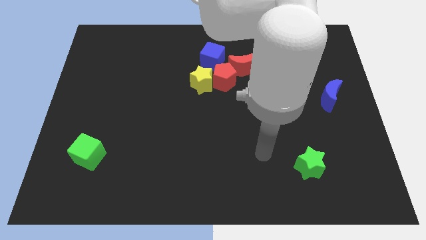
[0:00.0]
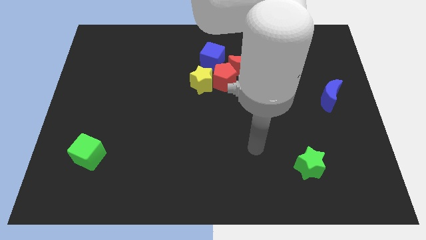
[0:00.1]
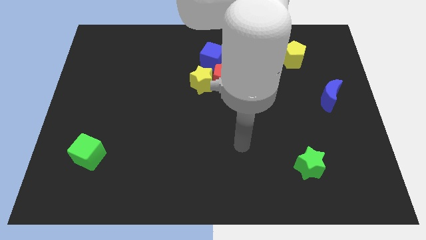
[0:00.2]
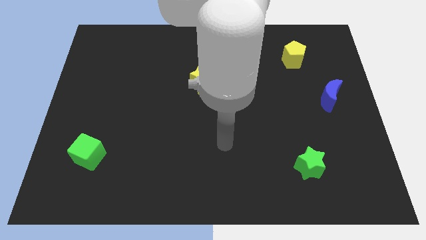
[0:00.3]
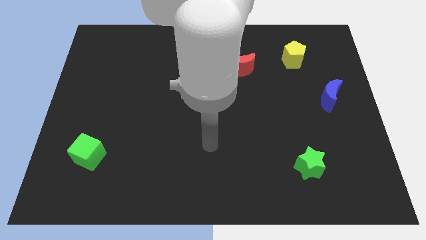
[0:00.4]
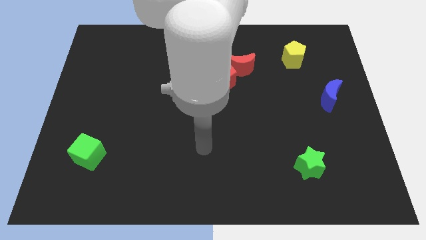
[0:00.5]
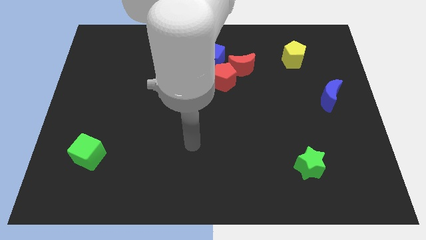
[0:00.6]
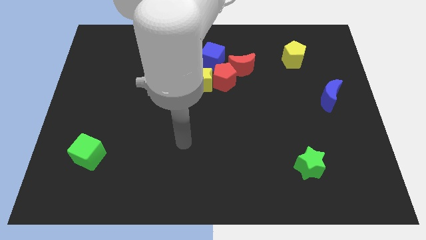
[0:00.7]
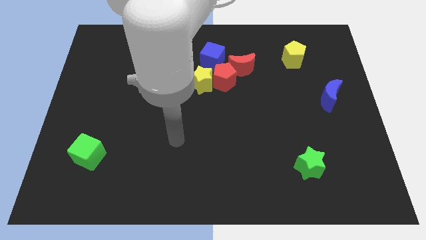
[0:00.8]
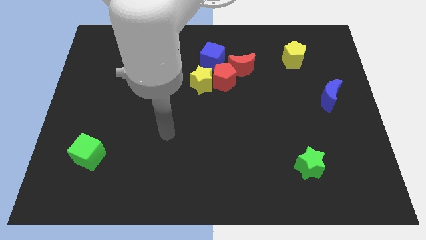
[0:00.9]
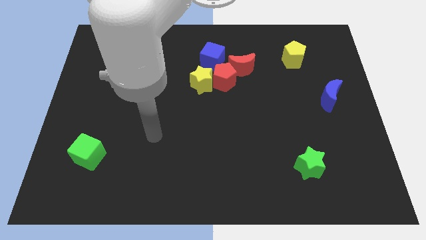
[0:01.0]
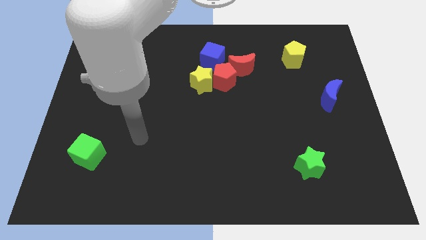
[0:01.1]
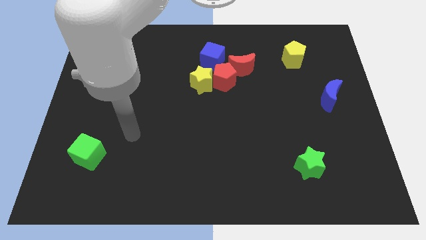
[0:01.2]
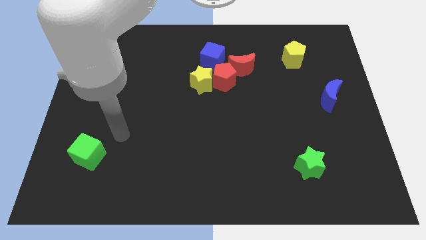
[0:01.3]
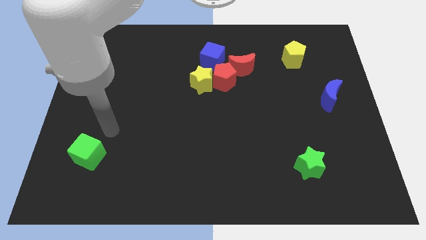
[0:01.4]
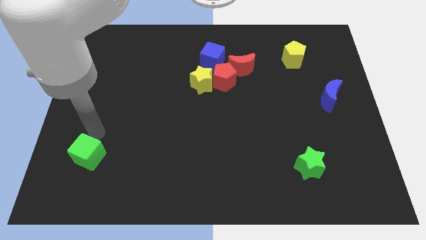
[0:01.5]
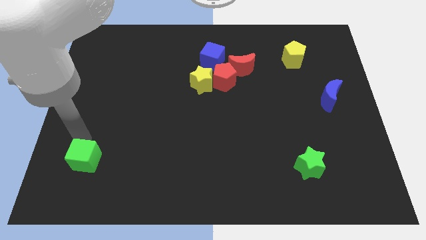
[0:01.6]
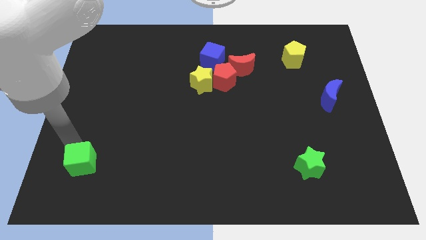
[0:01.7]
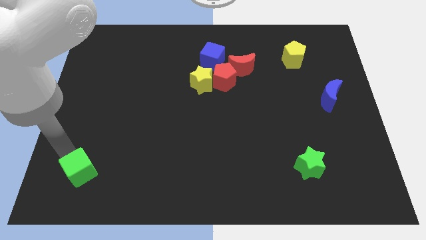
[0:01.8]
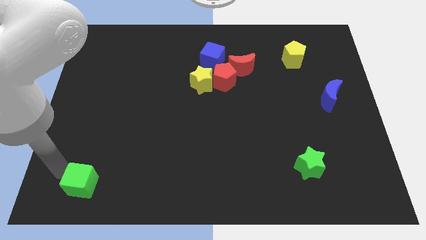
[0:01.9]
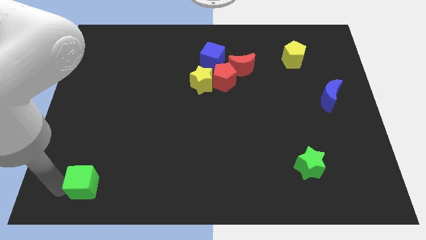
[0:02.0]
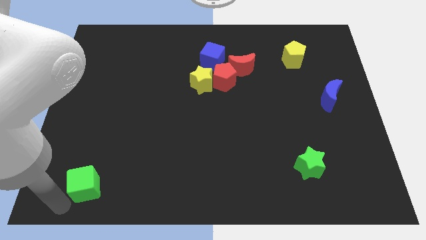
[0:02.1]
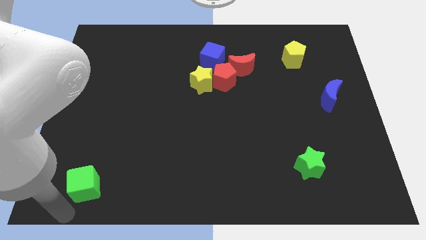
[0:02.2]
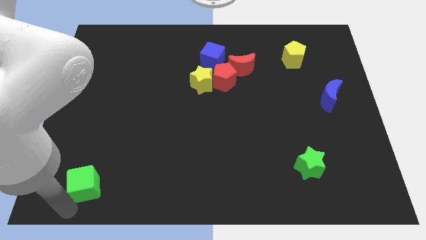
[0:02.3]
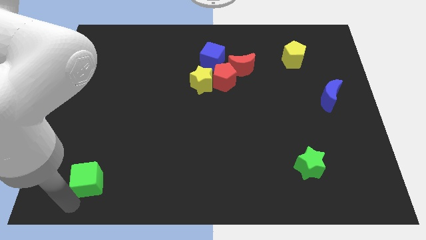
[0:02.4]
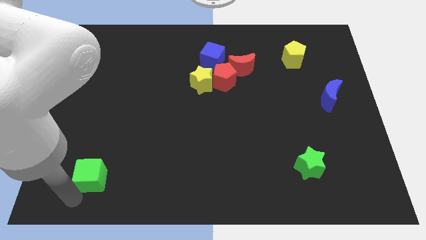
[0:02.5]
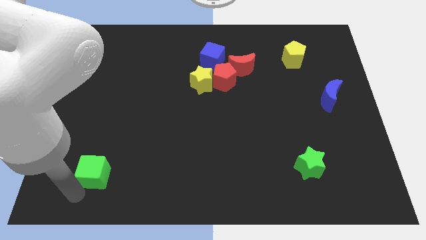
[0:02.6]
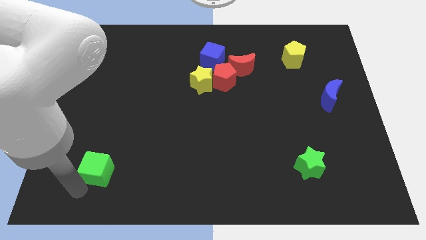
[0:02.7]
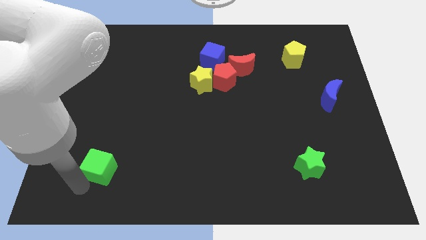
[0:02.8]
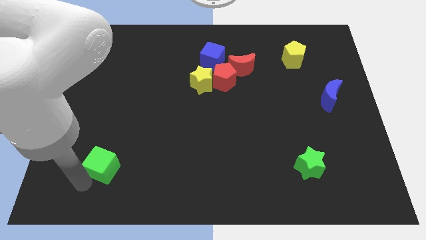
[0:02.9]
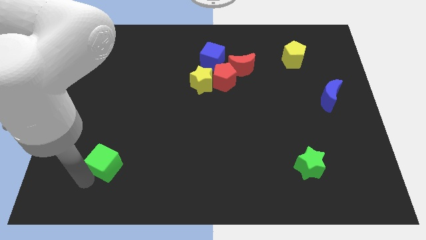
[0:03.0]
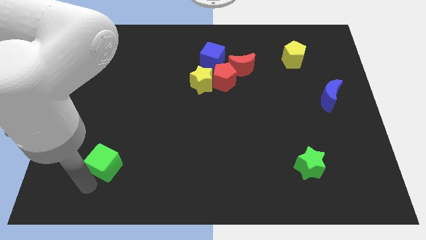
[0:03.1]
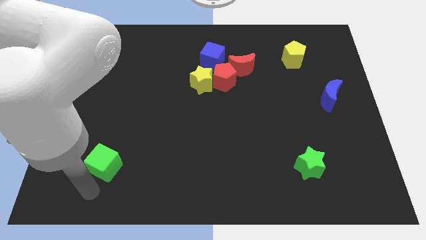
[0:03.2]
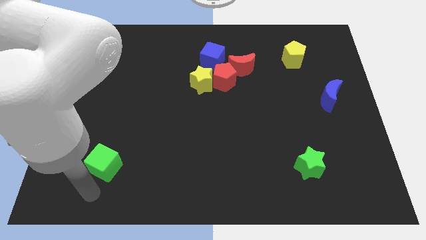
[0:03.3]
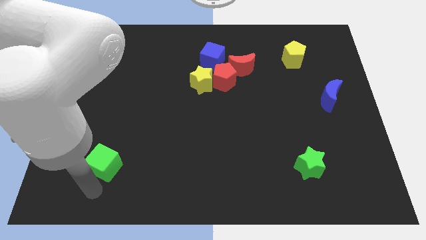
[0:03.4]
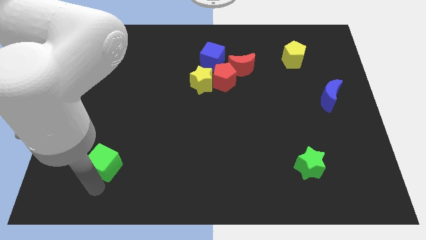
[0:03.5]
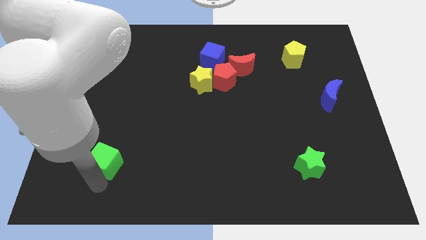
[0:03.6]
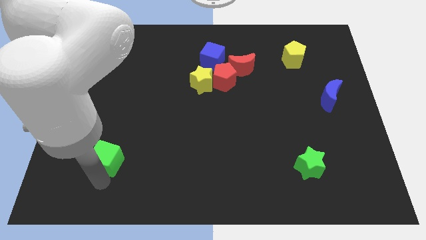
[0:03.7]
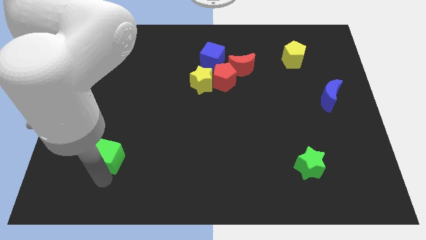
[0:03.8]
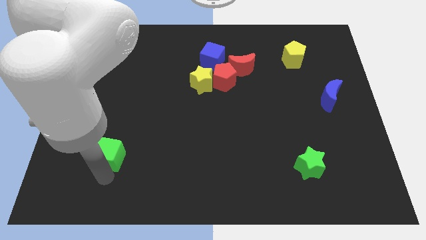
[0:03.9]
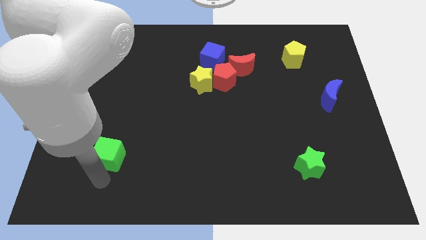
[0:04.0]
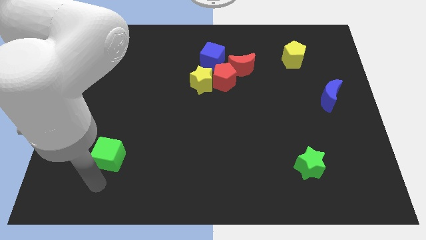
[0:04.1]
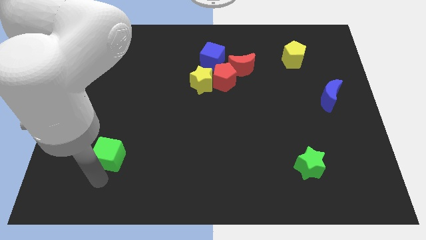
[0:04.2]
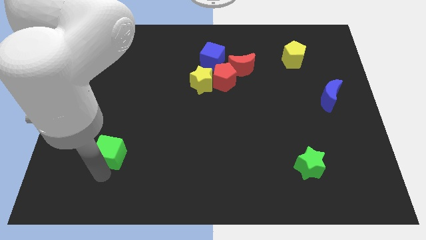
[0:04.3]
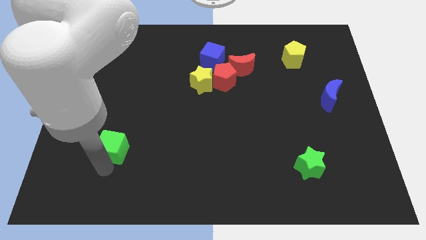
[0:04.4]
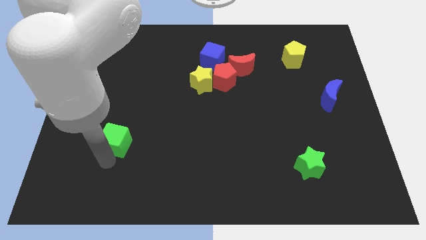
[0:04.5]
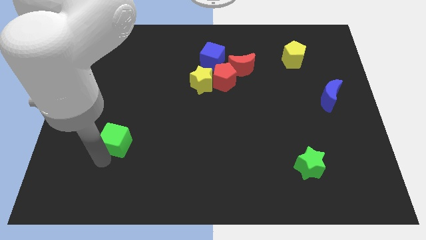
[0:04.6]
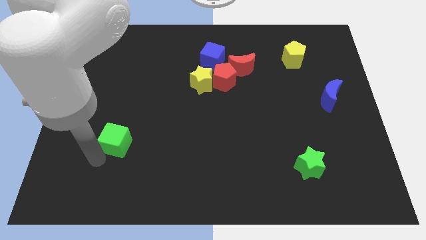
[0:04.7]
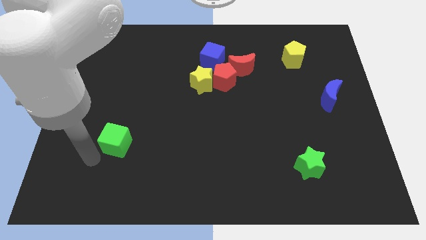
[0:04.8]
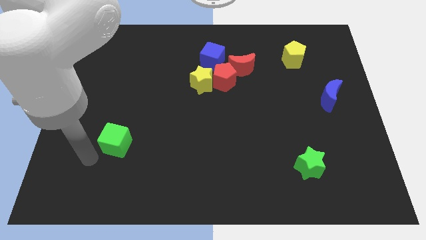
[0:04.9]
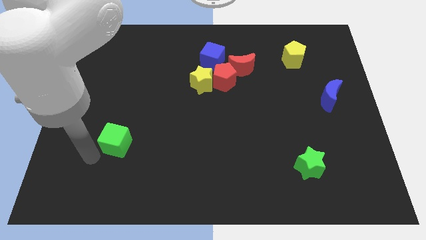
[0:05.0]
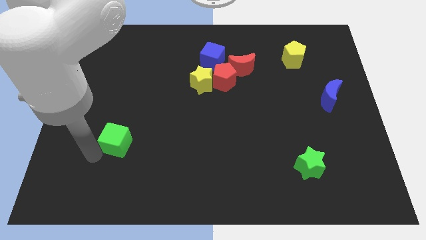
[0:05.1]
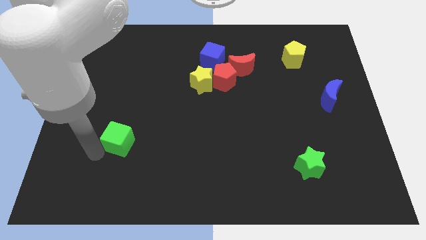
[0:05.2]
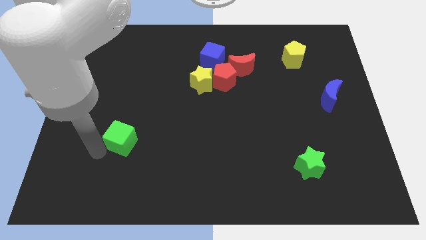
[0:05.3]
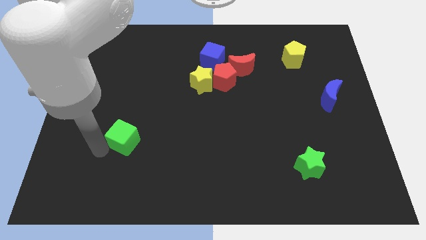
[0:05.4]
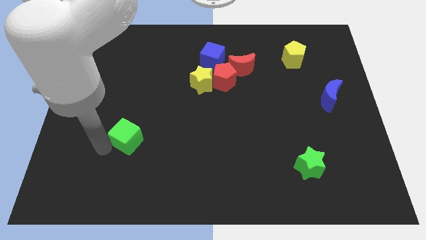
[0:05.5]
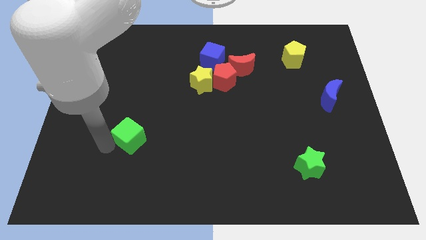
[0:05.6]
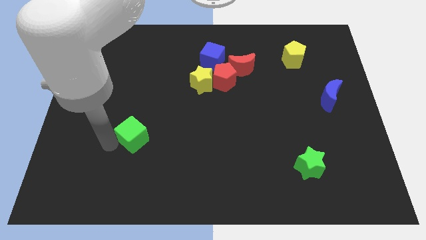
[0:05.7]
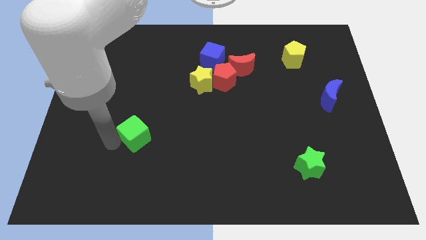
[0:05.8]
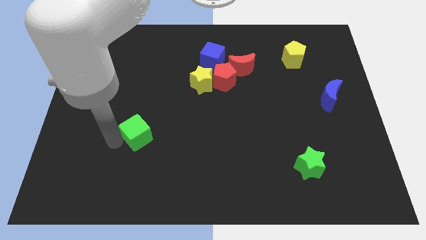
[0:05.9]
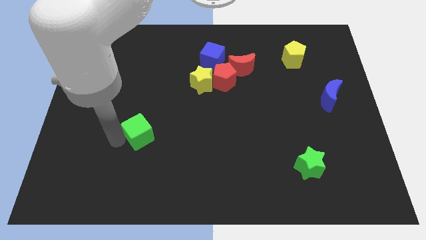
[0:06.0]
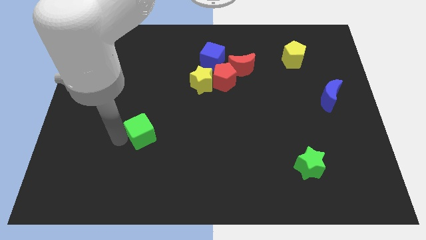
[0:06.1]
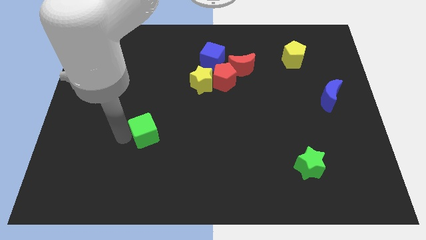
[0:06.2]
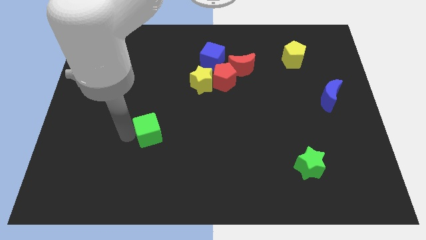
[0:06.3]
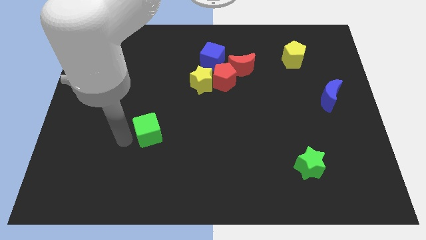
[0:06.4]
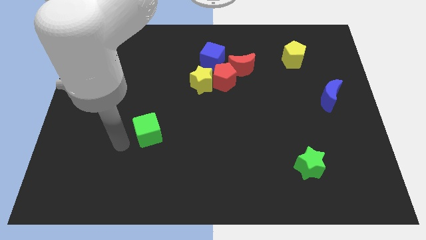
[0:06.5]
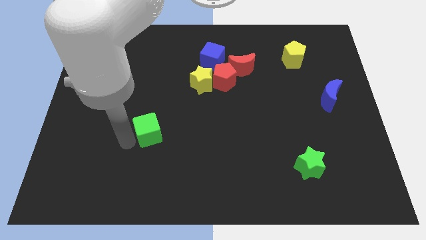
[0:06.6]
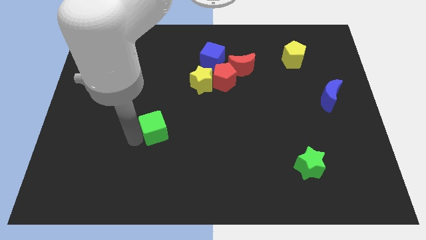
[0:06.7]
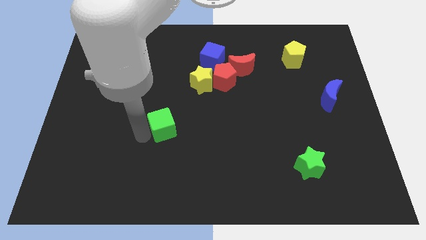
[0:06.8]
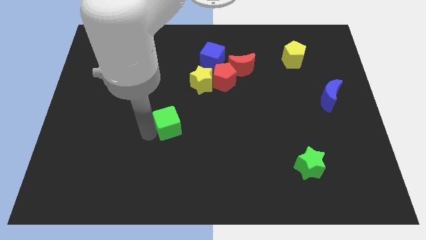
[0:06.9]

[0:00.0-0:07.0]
put the green cube to the middle
